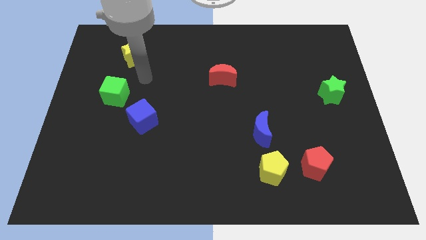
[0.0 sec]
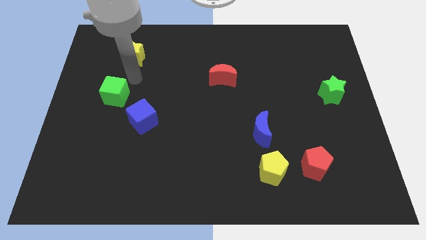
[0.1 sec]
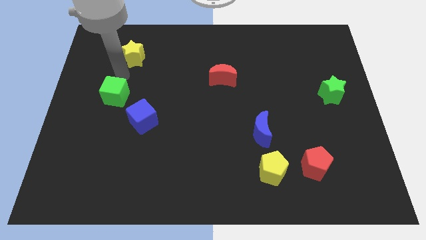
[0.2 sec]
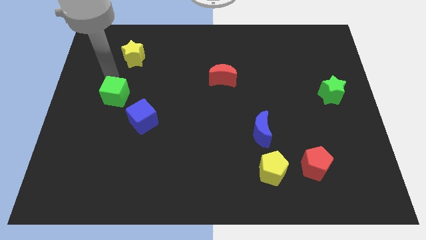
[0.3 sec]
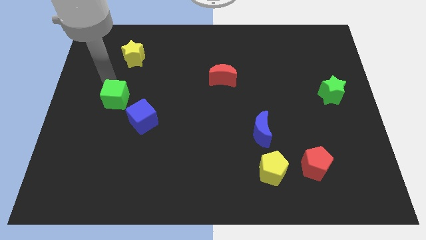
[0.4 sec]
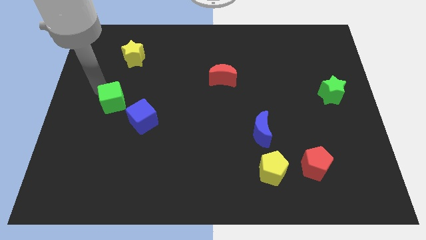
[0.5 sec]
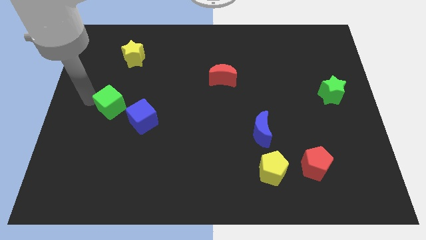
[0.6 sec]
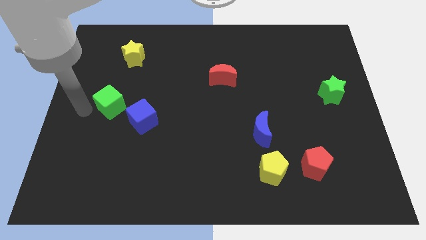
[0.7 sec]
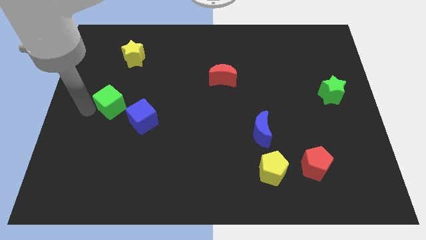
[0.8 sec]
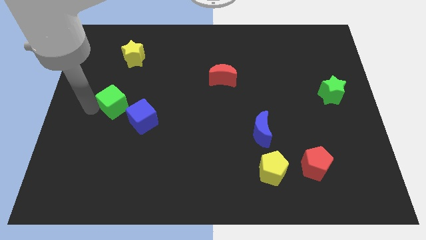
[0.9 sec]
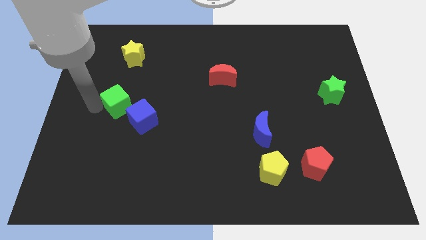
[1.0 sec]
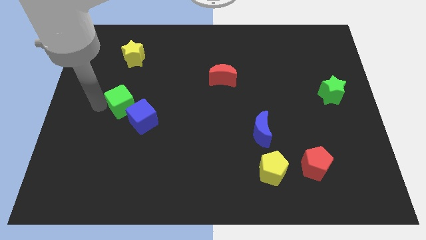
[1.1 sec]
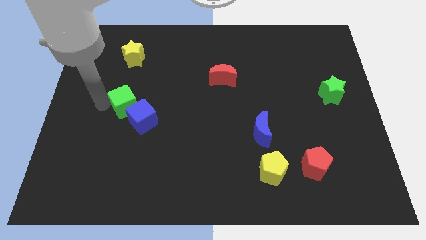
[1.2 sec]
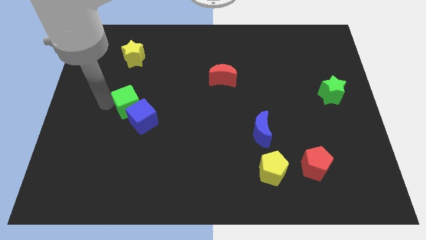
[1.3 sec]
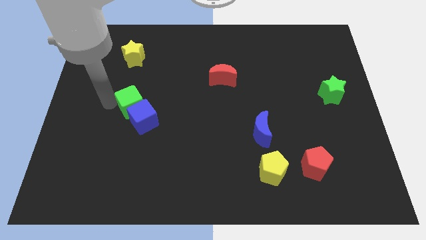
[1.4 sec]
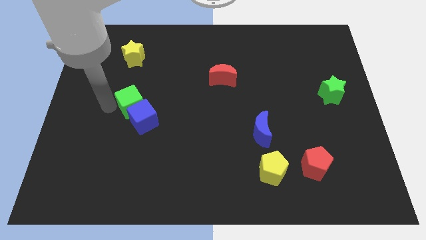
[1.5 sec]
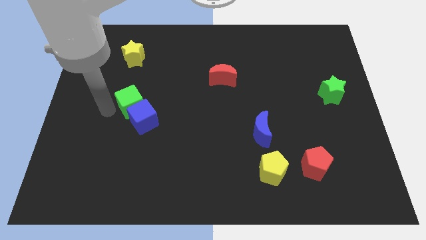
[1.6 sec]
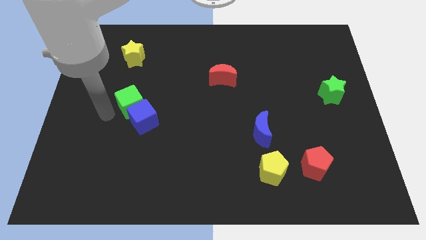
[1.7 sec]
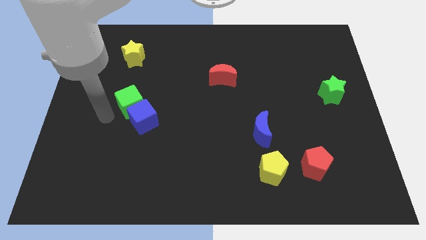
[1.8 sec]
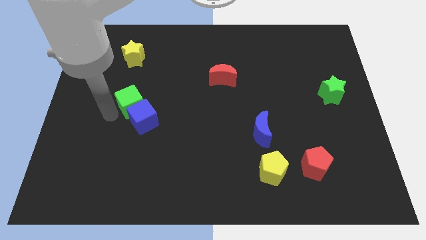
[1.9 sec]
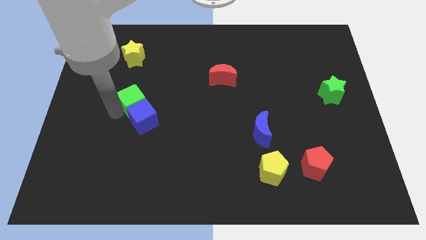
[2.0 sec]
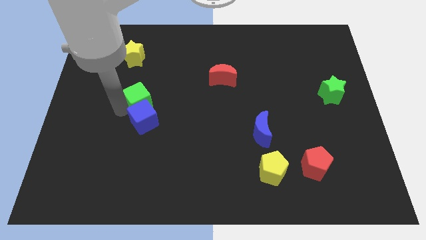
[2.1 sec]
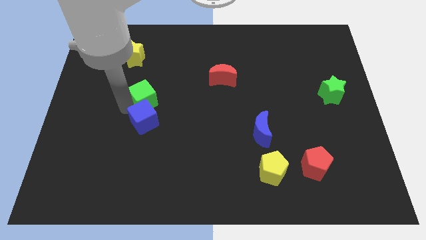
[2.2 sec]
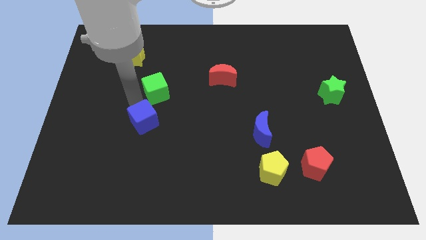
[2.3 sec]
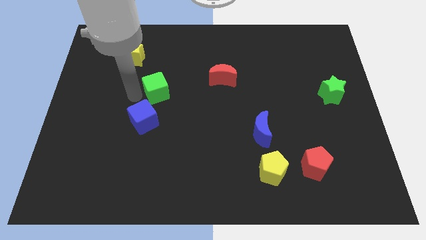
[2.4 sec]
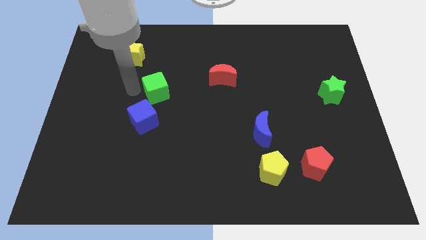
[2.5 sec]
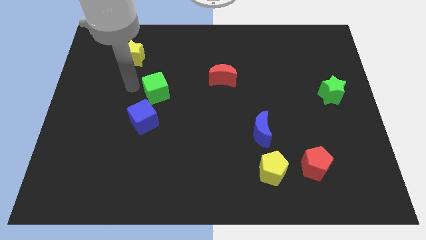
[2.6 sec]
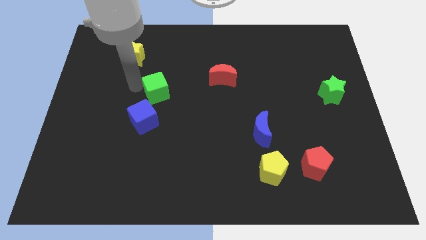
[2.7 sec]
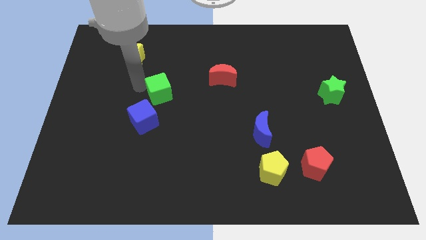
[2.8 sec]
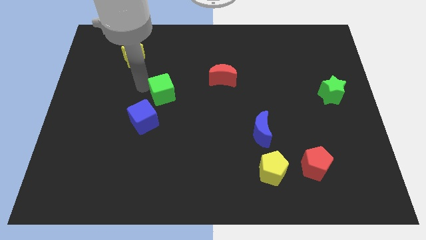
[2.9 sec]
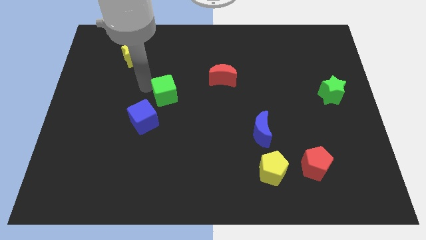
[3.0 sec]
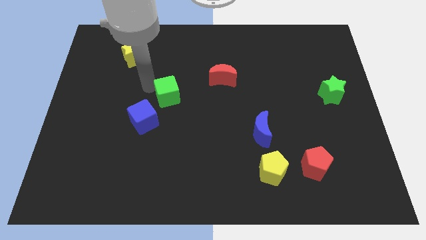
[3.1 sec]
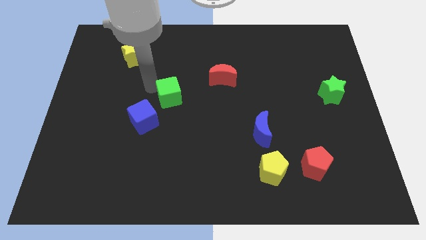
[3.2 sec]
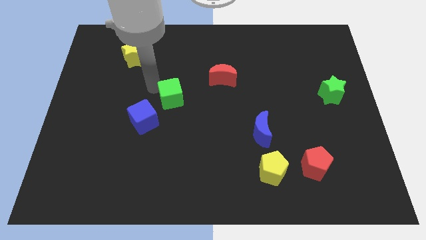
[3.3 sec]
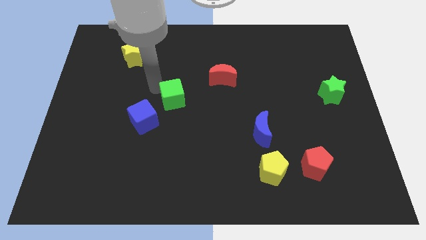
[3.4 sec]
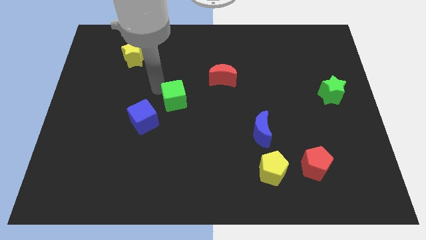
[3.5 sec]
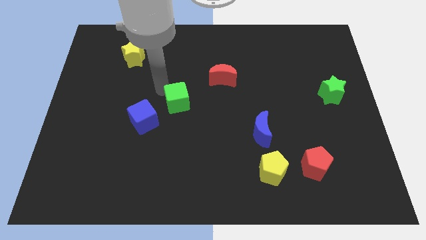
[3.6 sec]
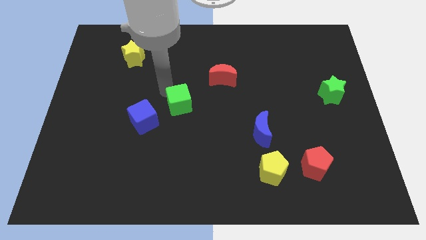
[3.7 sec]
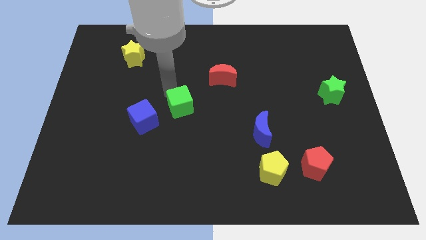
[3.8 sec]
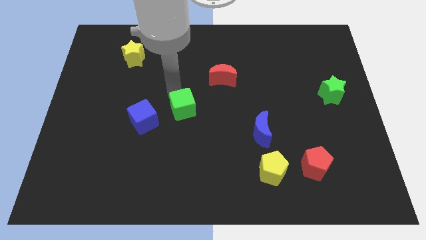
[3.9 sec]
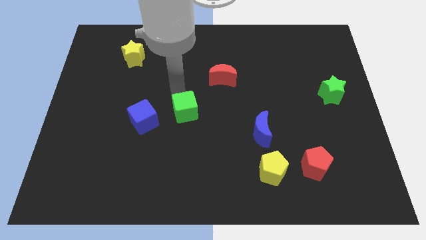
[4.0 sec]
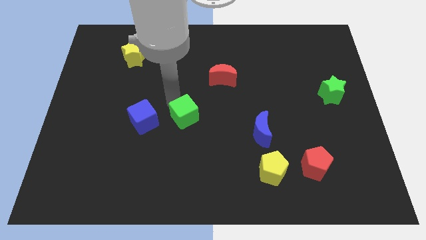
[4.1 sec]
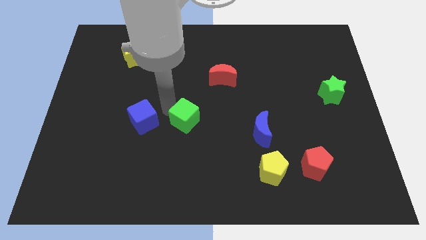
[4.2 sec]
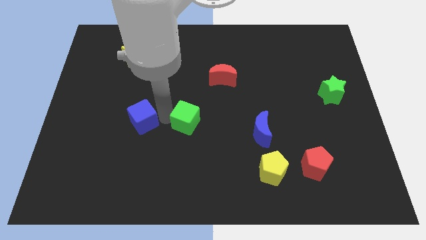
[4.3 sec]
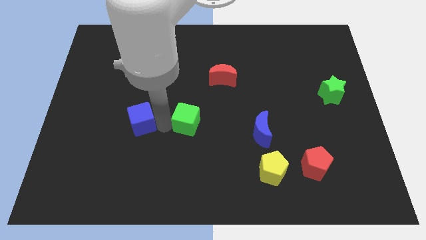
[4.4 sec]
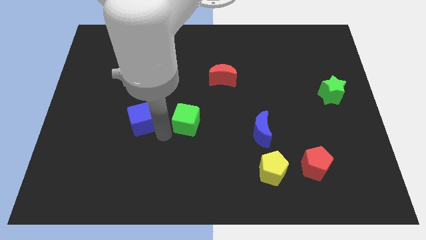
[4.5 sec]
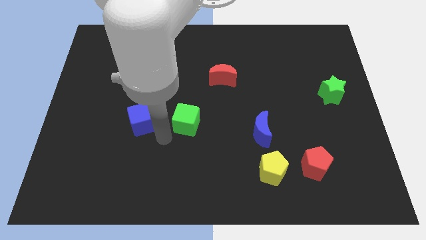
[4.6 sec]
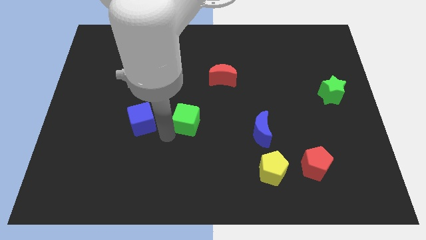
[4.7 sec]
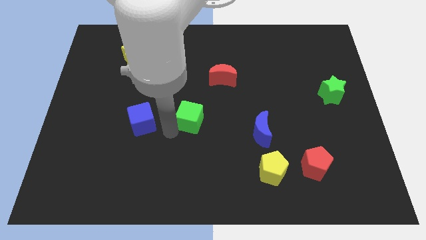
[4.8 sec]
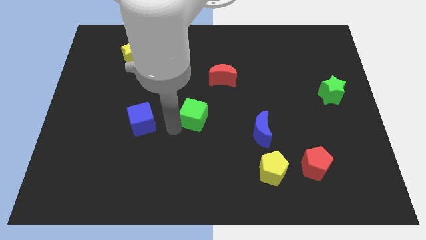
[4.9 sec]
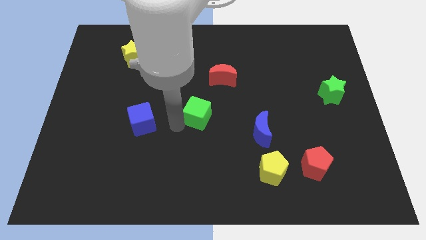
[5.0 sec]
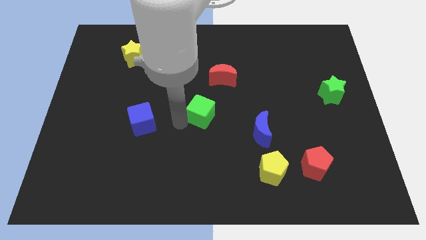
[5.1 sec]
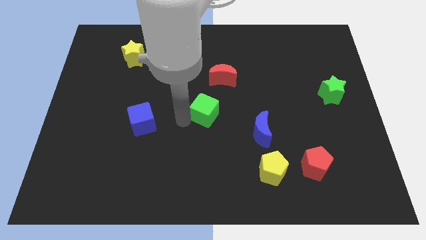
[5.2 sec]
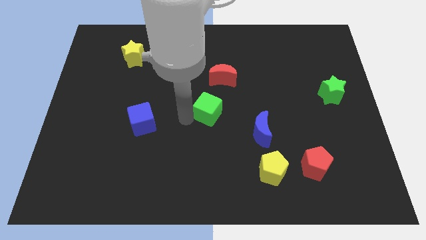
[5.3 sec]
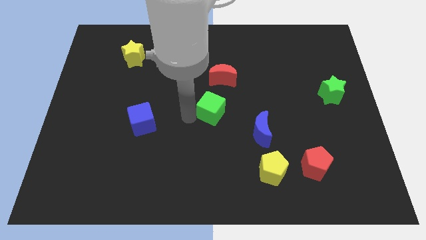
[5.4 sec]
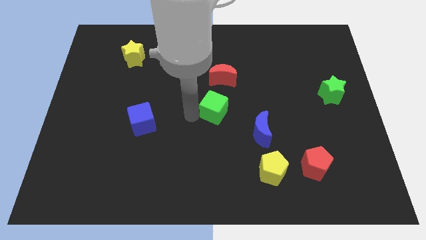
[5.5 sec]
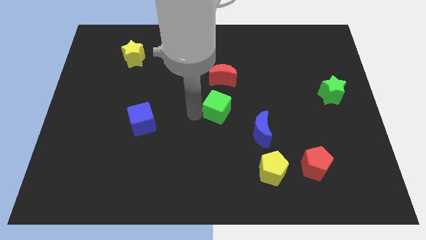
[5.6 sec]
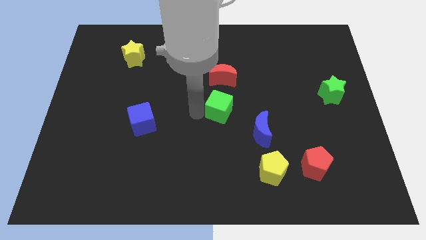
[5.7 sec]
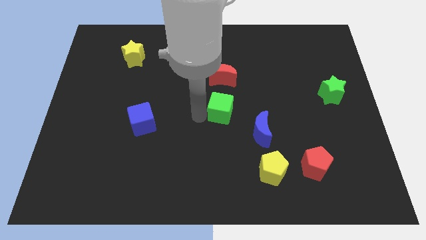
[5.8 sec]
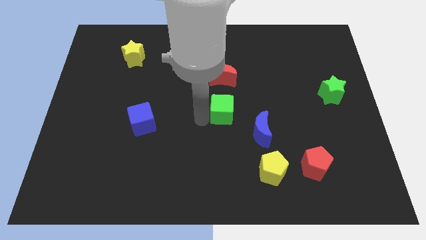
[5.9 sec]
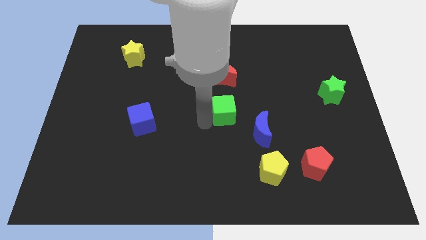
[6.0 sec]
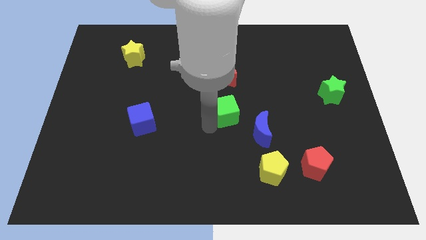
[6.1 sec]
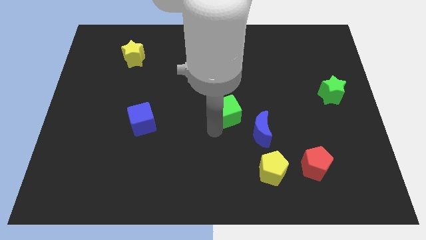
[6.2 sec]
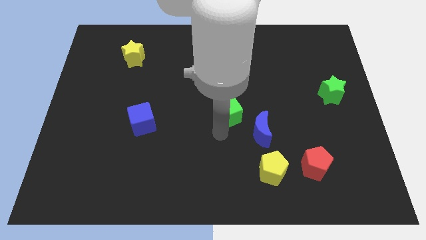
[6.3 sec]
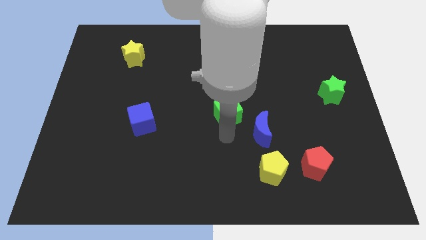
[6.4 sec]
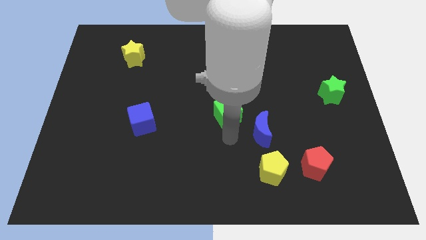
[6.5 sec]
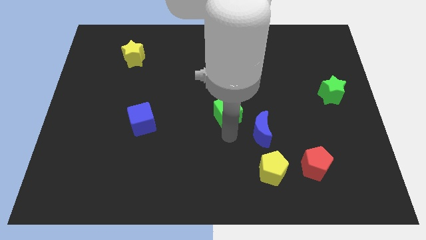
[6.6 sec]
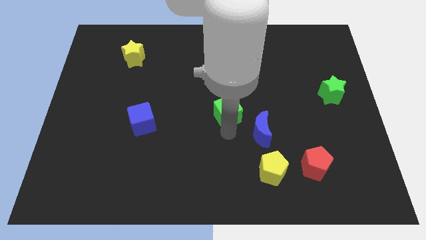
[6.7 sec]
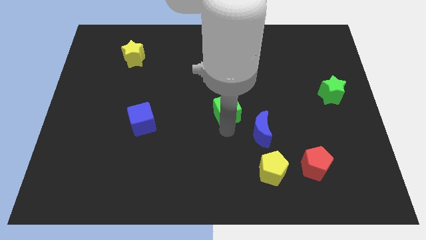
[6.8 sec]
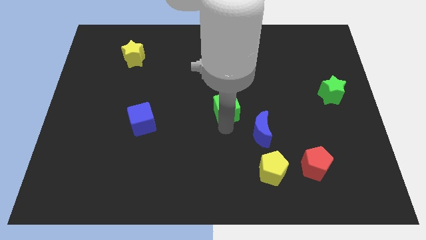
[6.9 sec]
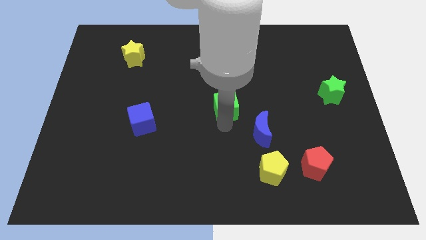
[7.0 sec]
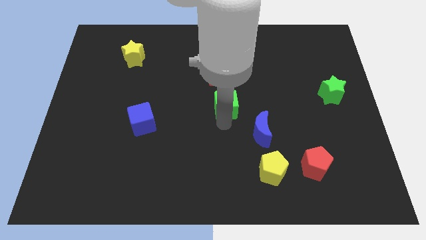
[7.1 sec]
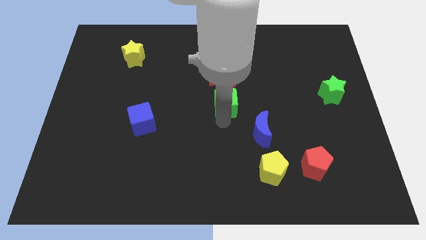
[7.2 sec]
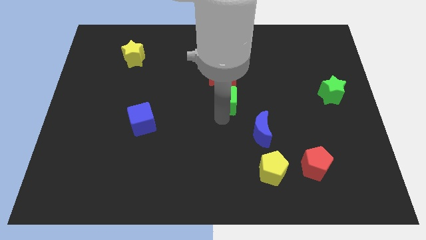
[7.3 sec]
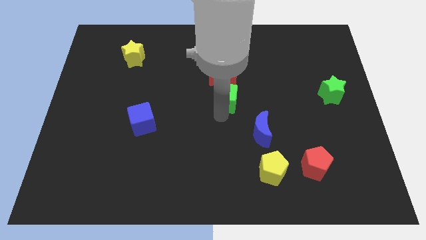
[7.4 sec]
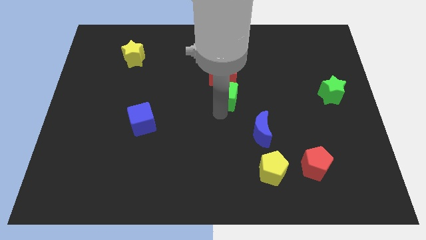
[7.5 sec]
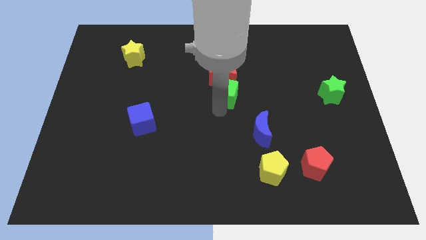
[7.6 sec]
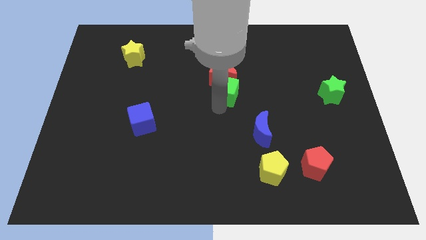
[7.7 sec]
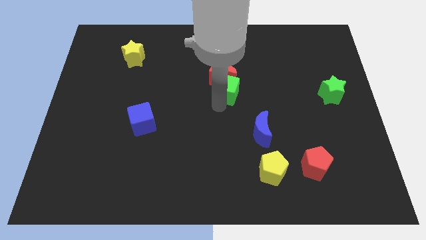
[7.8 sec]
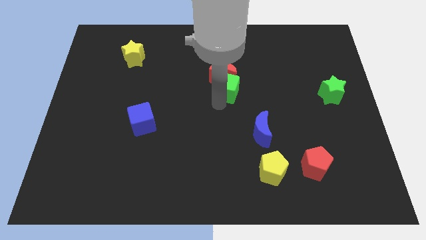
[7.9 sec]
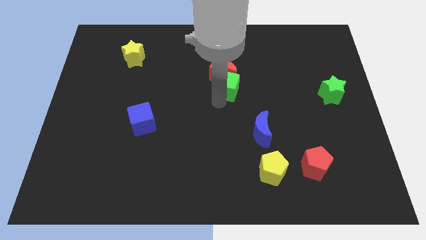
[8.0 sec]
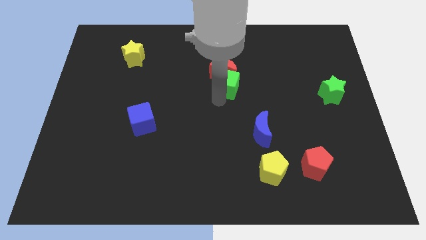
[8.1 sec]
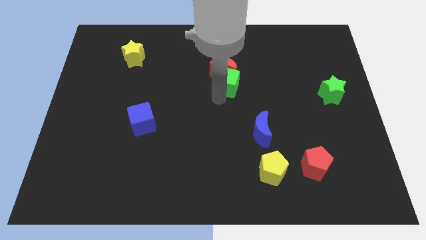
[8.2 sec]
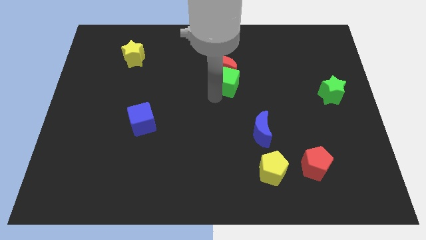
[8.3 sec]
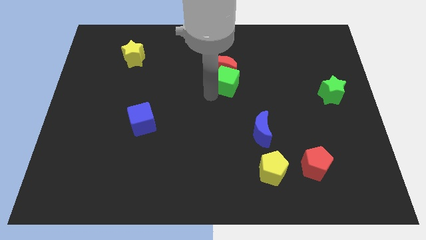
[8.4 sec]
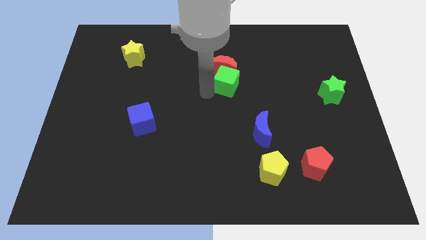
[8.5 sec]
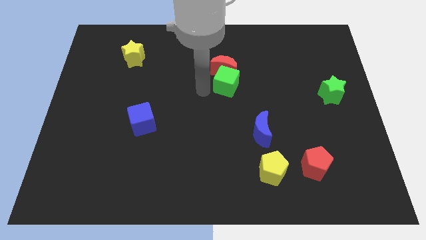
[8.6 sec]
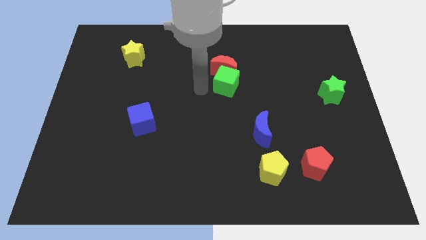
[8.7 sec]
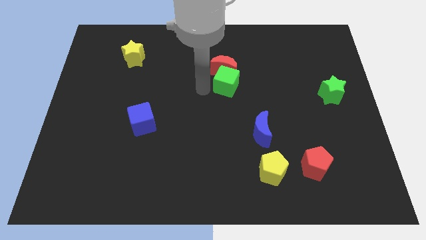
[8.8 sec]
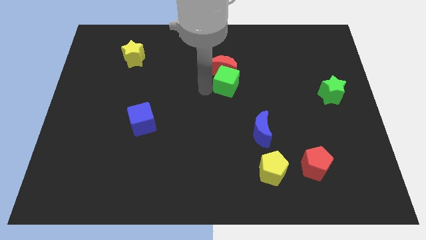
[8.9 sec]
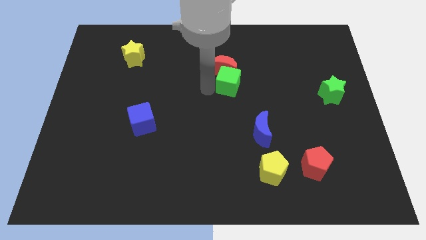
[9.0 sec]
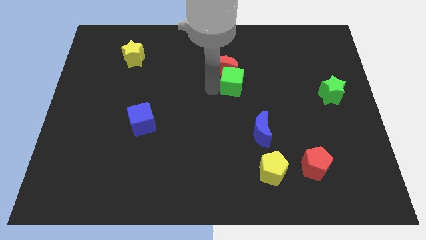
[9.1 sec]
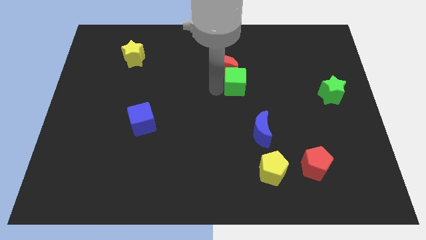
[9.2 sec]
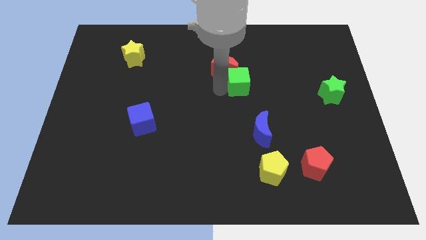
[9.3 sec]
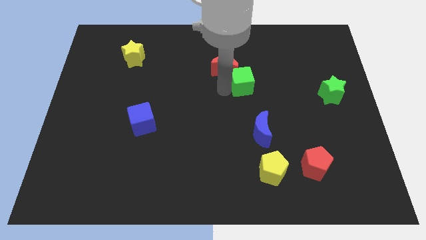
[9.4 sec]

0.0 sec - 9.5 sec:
push the green cube right of the red moon
